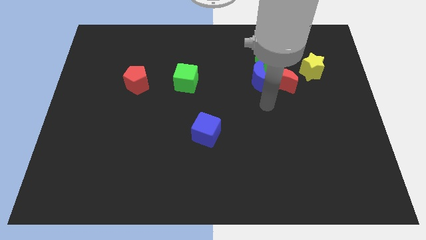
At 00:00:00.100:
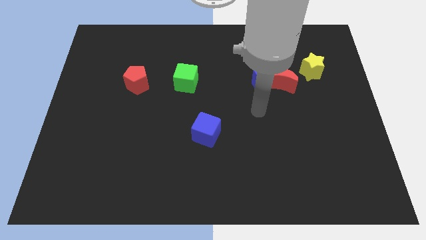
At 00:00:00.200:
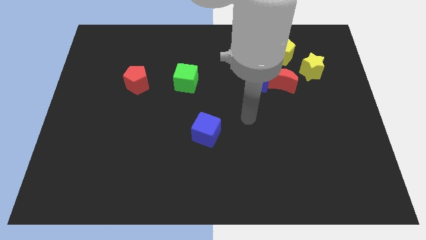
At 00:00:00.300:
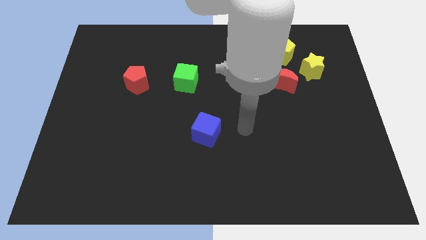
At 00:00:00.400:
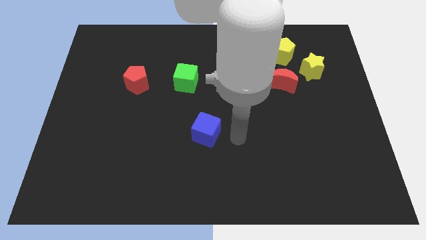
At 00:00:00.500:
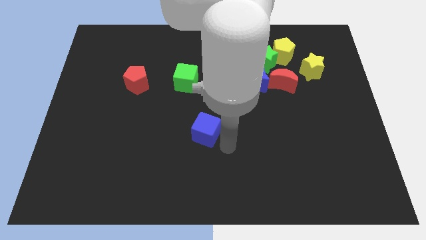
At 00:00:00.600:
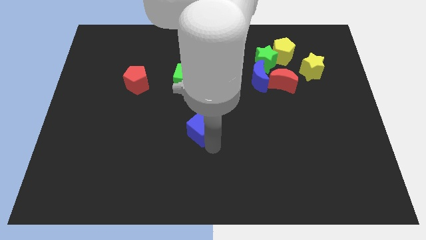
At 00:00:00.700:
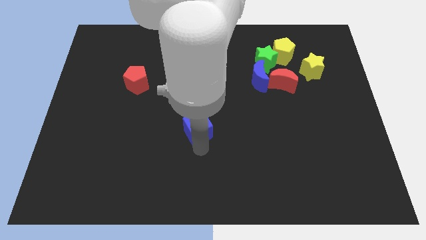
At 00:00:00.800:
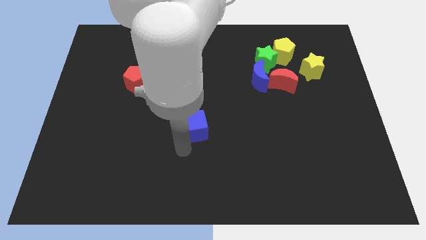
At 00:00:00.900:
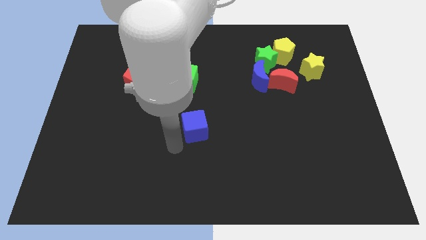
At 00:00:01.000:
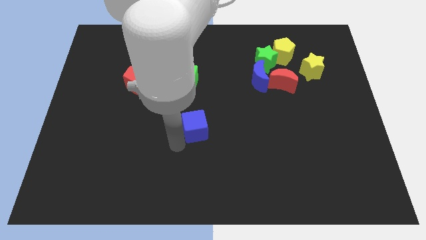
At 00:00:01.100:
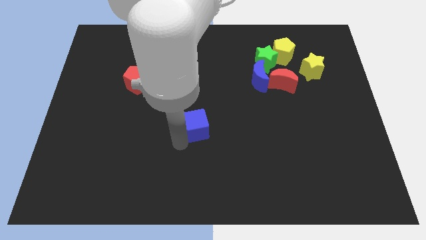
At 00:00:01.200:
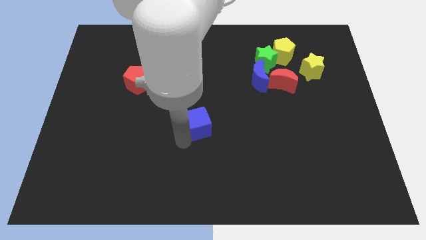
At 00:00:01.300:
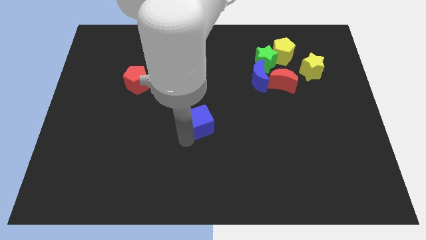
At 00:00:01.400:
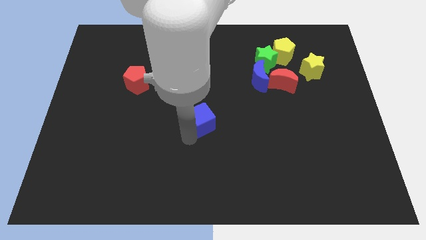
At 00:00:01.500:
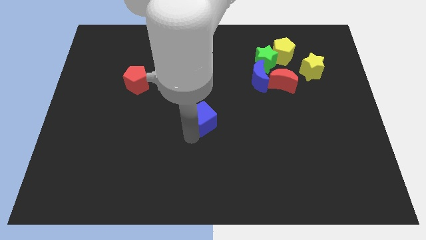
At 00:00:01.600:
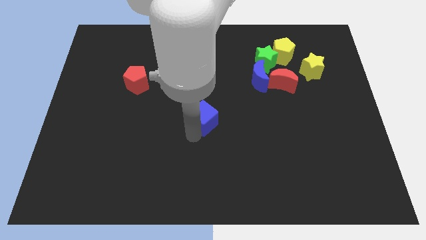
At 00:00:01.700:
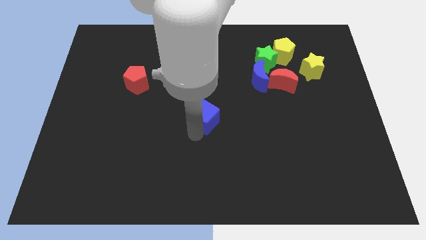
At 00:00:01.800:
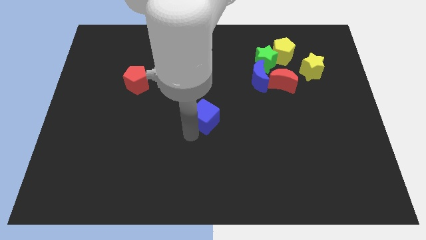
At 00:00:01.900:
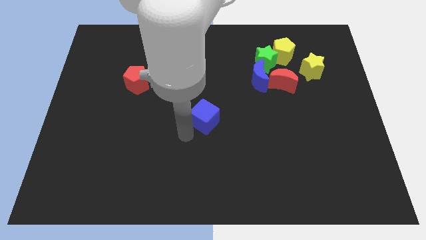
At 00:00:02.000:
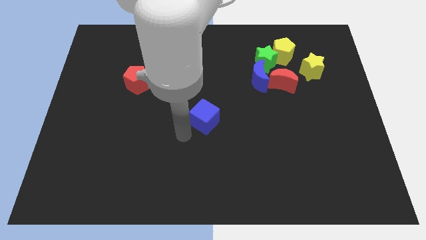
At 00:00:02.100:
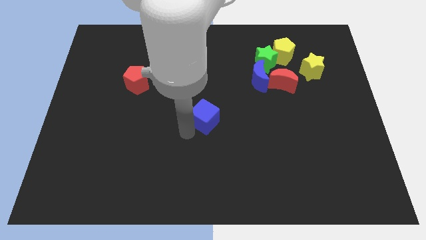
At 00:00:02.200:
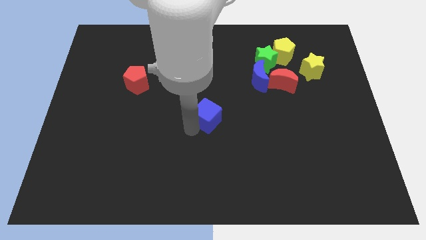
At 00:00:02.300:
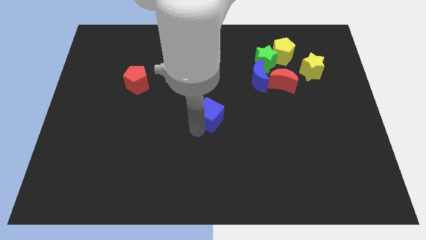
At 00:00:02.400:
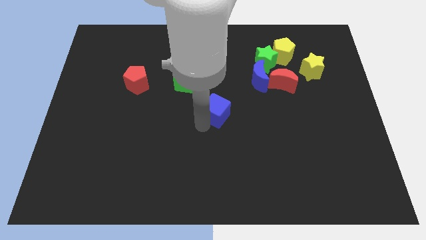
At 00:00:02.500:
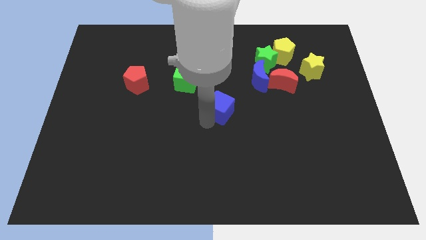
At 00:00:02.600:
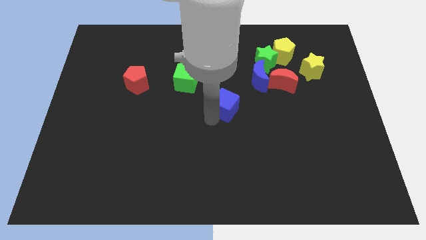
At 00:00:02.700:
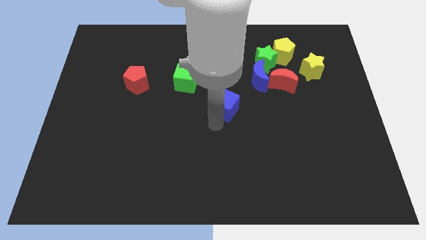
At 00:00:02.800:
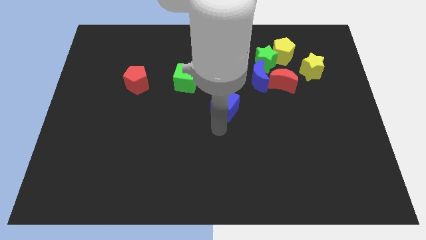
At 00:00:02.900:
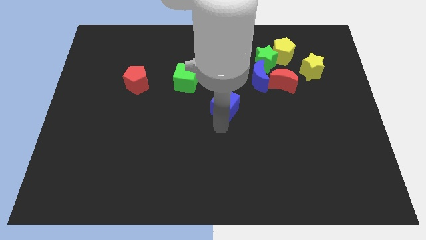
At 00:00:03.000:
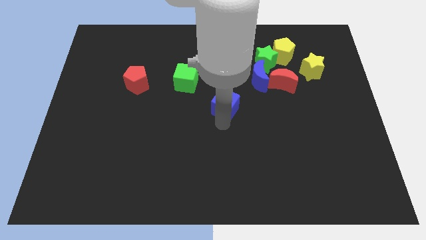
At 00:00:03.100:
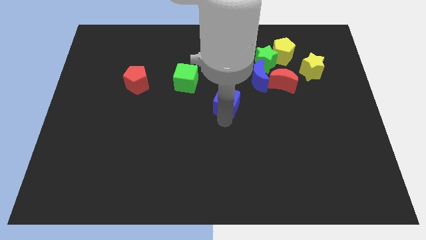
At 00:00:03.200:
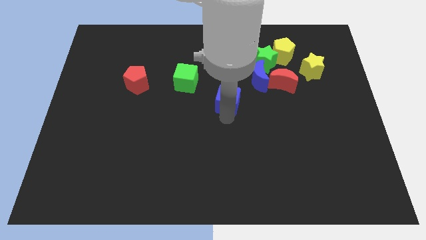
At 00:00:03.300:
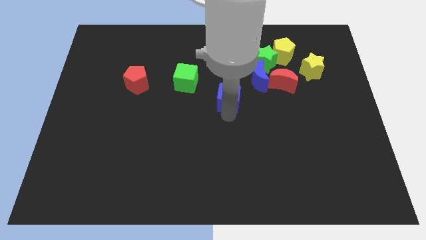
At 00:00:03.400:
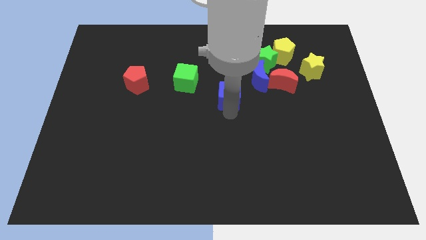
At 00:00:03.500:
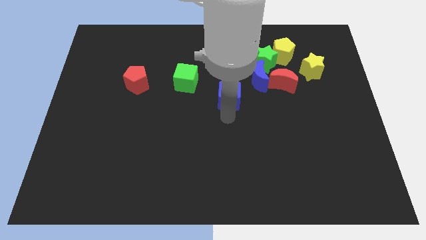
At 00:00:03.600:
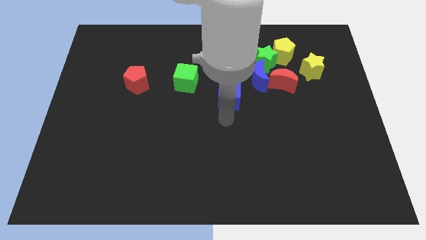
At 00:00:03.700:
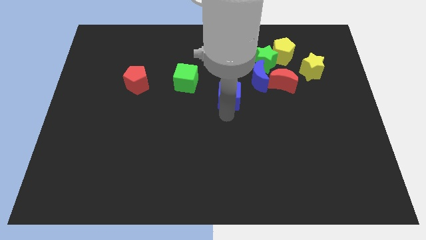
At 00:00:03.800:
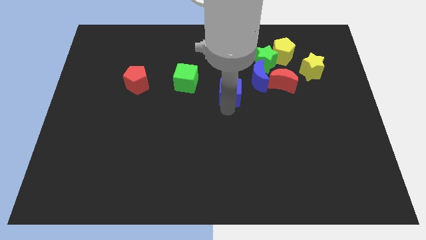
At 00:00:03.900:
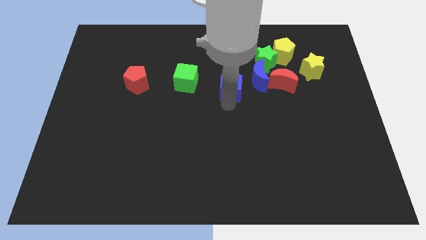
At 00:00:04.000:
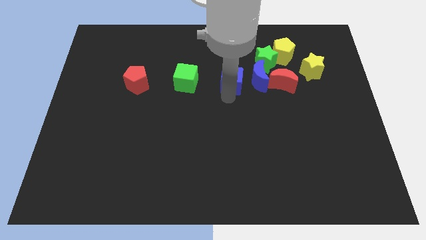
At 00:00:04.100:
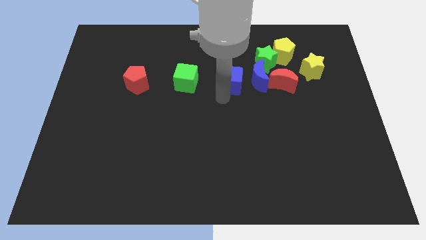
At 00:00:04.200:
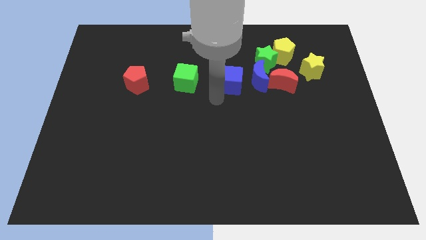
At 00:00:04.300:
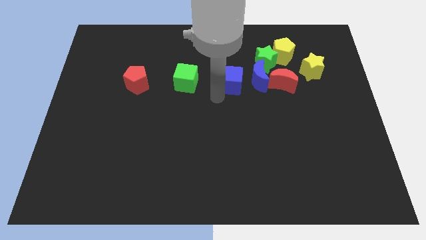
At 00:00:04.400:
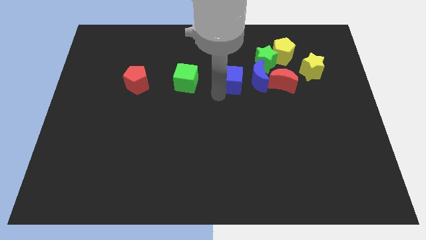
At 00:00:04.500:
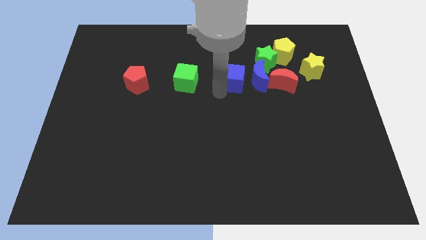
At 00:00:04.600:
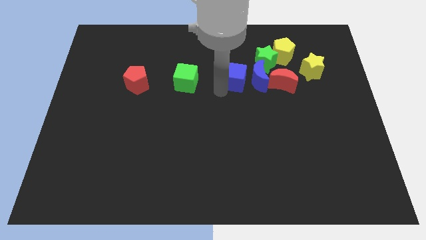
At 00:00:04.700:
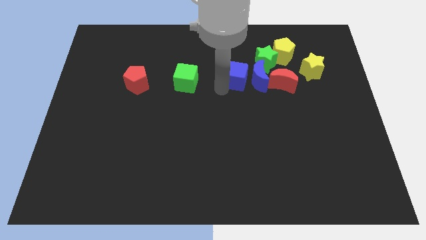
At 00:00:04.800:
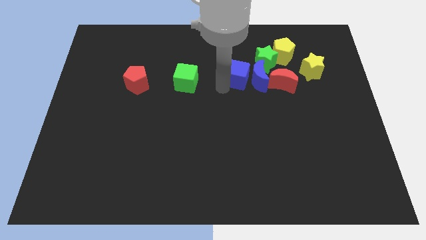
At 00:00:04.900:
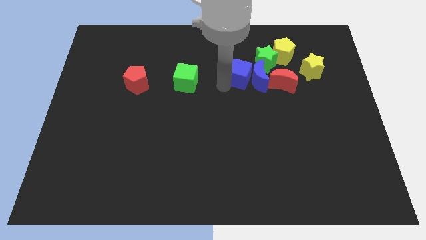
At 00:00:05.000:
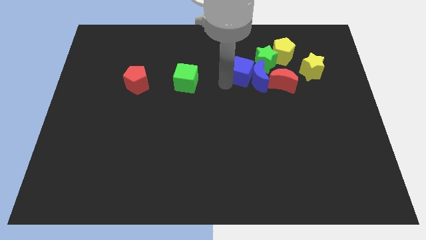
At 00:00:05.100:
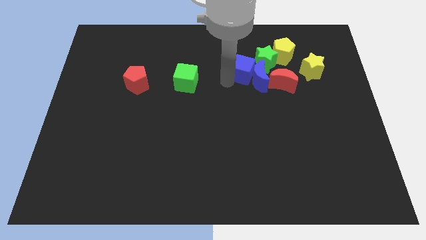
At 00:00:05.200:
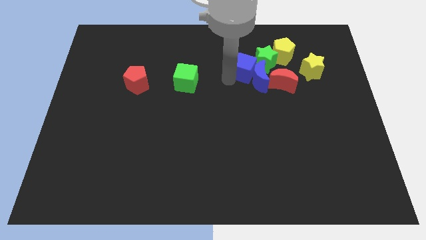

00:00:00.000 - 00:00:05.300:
move the blue cube to the green star

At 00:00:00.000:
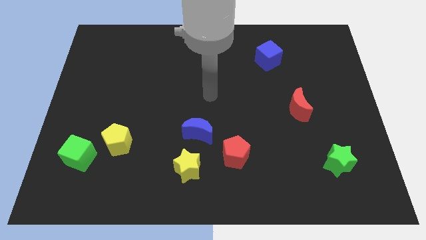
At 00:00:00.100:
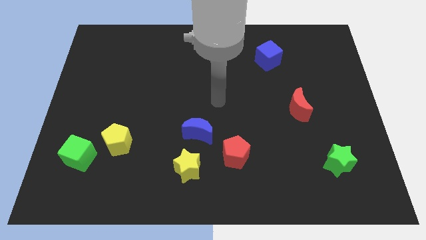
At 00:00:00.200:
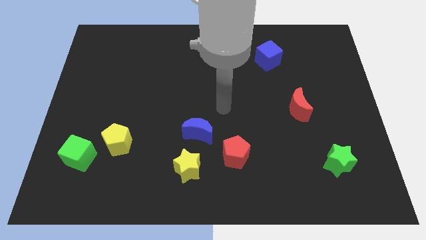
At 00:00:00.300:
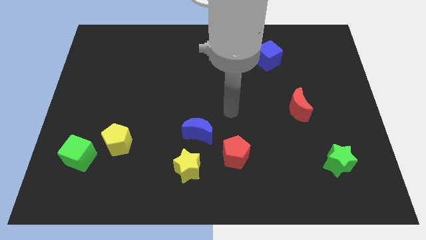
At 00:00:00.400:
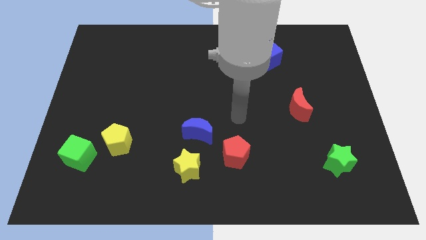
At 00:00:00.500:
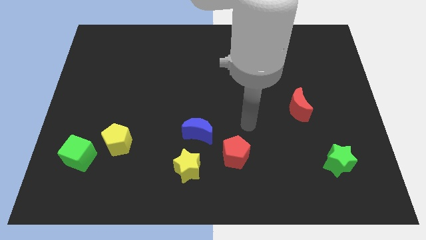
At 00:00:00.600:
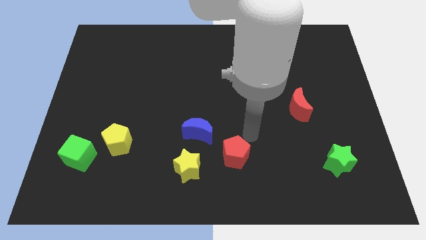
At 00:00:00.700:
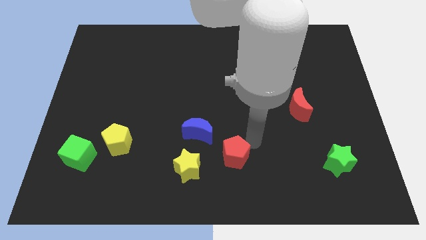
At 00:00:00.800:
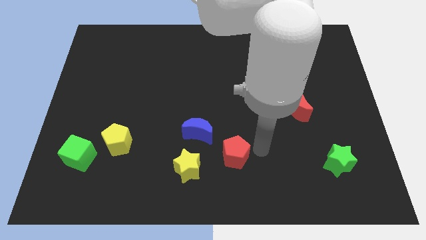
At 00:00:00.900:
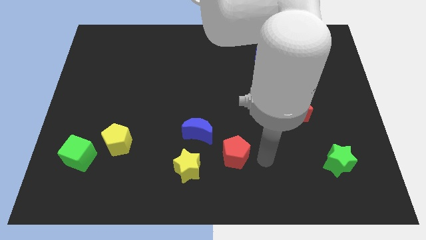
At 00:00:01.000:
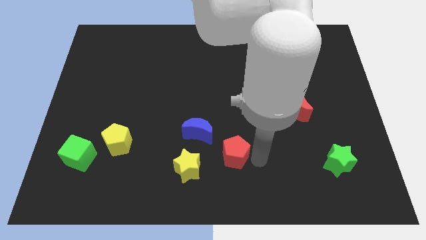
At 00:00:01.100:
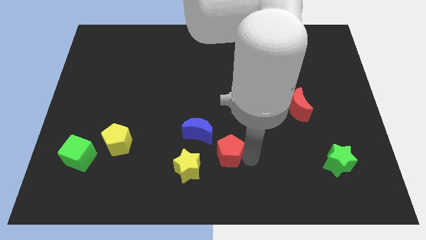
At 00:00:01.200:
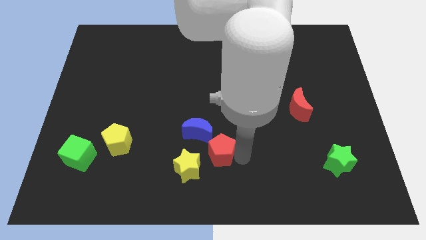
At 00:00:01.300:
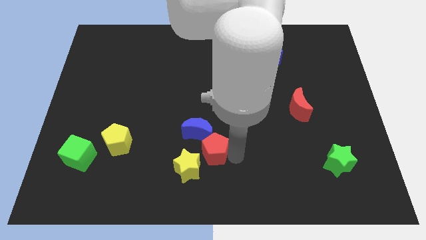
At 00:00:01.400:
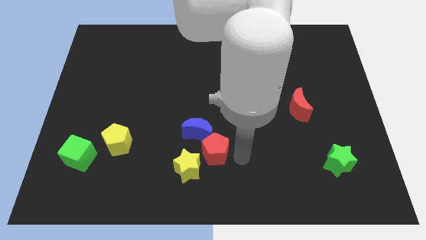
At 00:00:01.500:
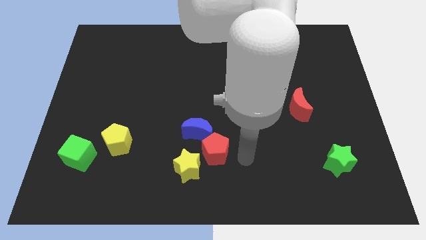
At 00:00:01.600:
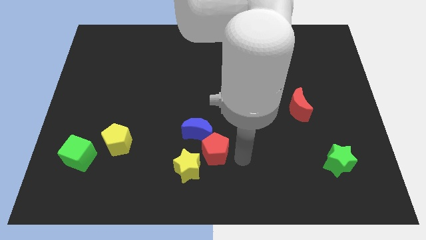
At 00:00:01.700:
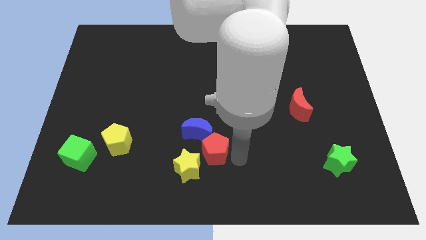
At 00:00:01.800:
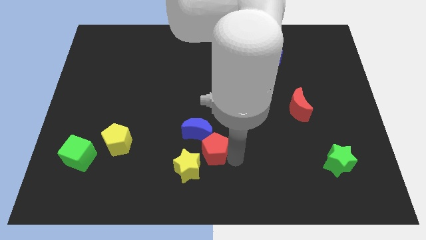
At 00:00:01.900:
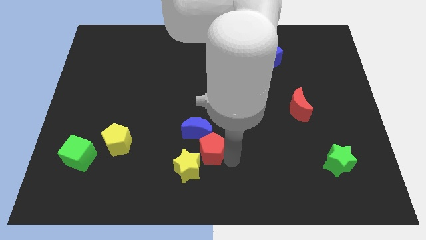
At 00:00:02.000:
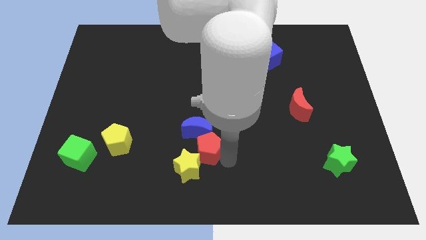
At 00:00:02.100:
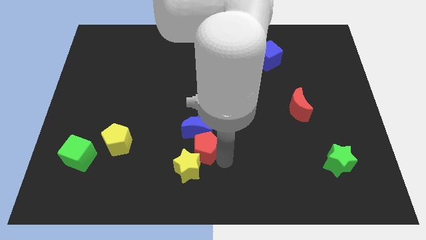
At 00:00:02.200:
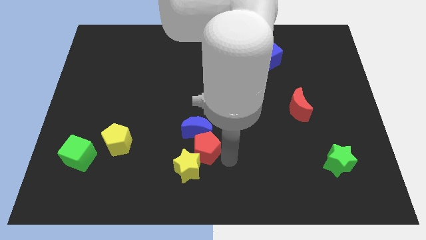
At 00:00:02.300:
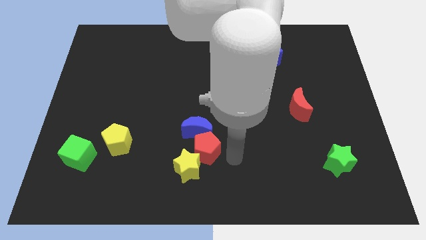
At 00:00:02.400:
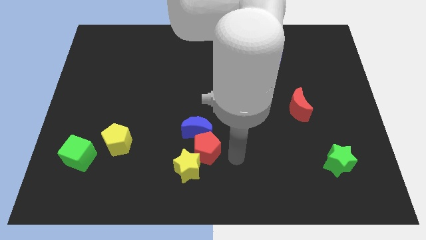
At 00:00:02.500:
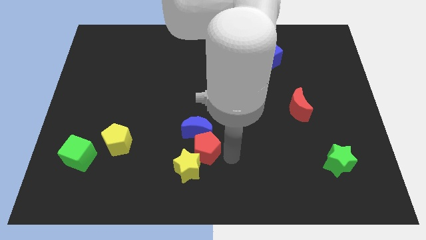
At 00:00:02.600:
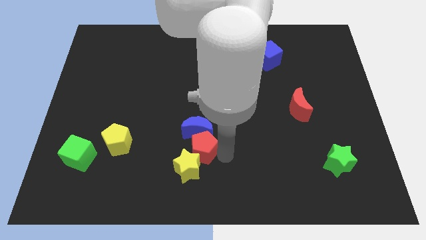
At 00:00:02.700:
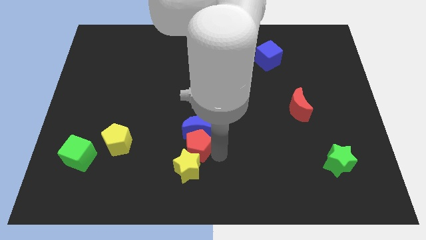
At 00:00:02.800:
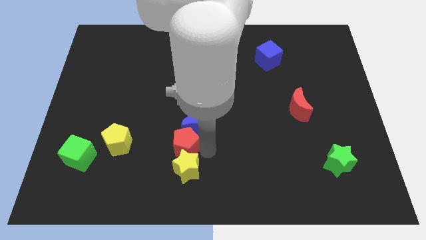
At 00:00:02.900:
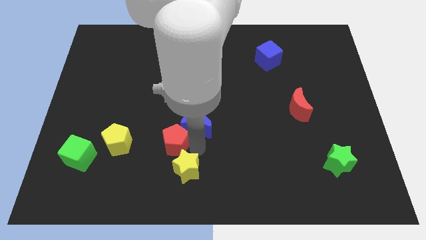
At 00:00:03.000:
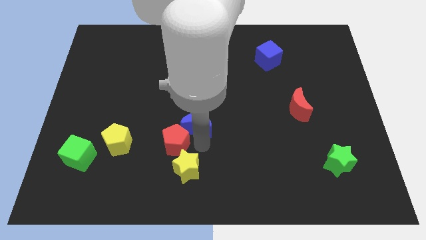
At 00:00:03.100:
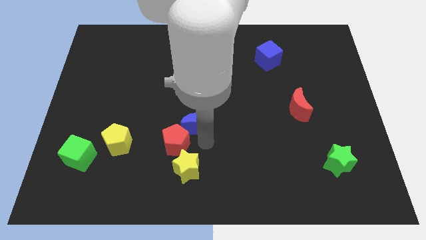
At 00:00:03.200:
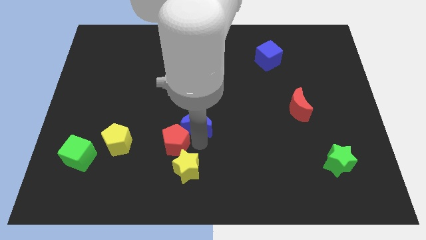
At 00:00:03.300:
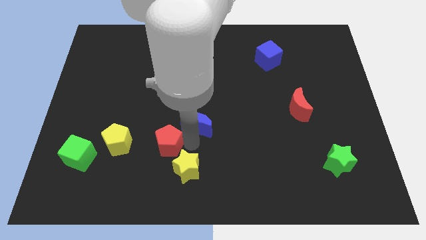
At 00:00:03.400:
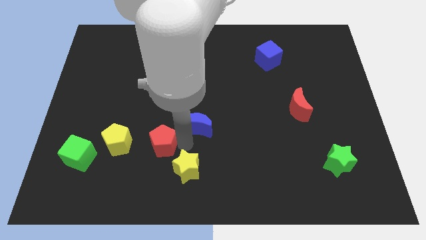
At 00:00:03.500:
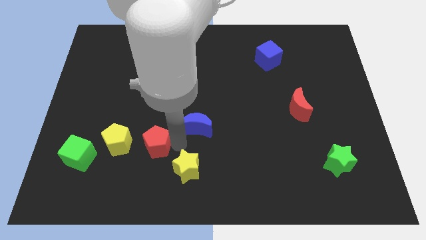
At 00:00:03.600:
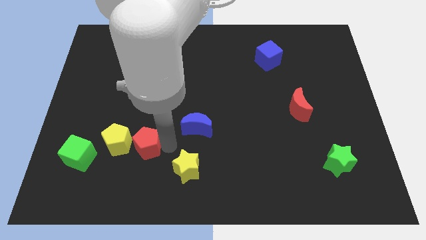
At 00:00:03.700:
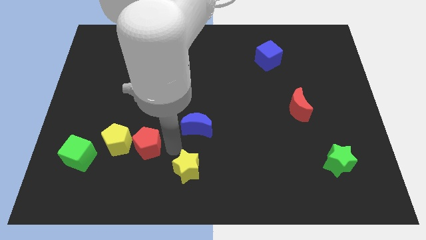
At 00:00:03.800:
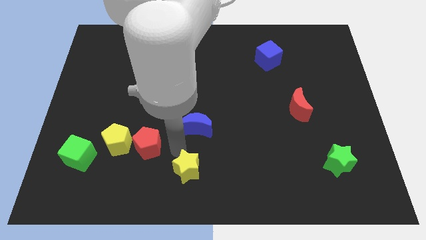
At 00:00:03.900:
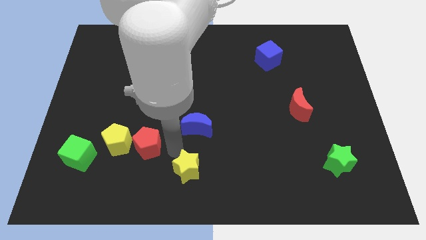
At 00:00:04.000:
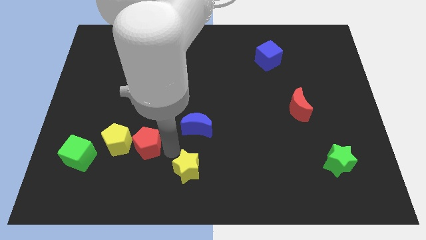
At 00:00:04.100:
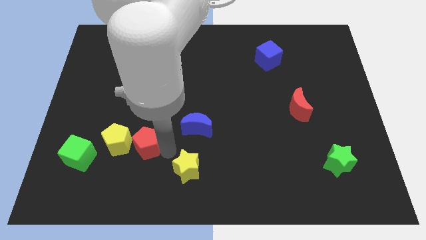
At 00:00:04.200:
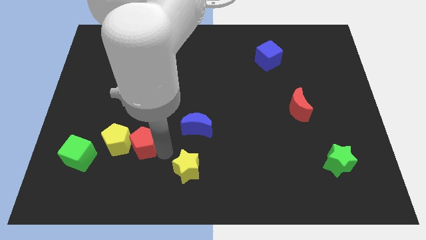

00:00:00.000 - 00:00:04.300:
slide the red pentagon close to the yellow pentagon
